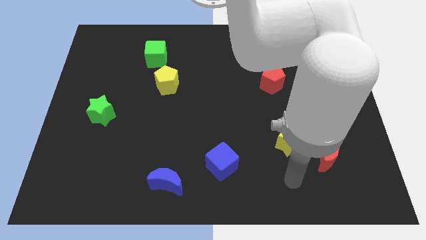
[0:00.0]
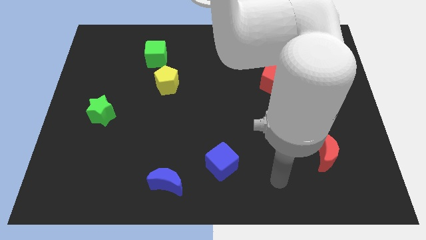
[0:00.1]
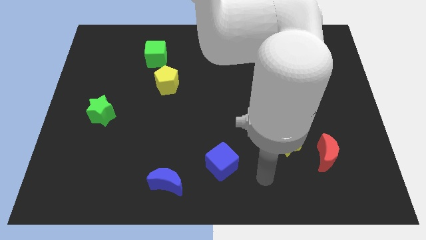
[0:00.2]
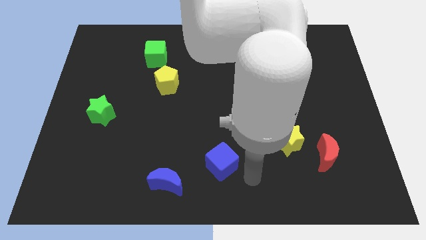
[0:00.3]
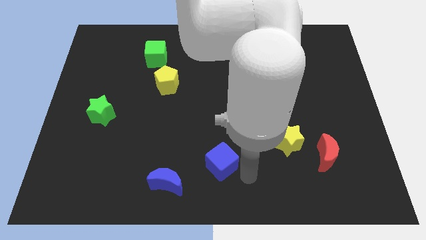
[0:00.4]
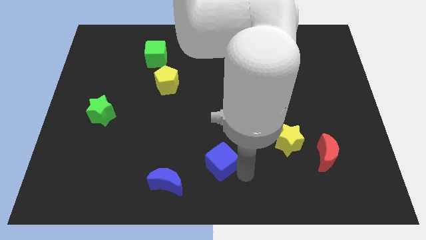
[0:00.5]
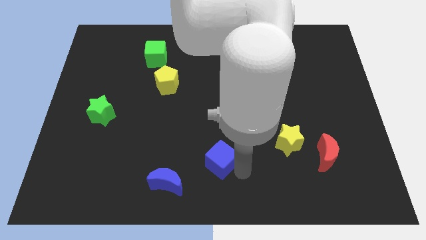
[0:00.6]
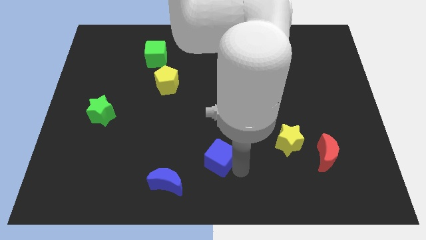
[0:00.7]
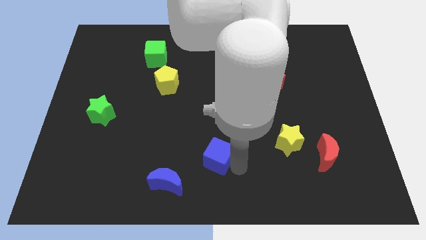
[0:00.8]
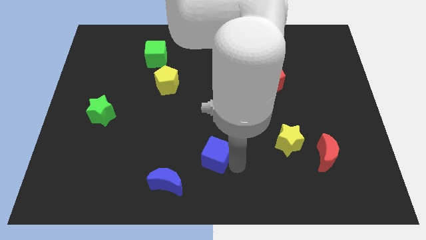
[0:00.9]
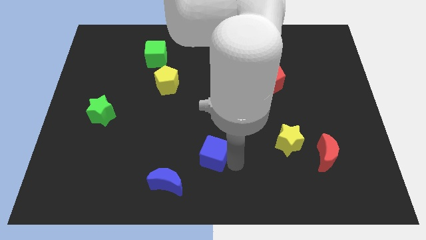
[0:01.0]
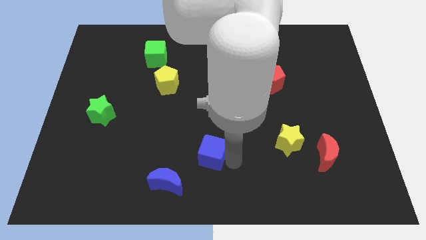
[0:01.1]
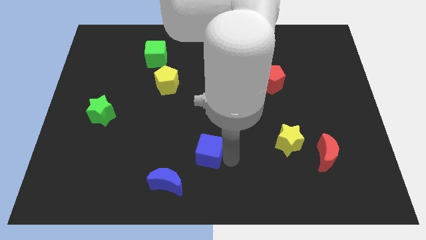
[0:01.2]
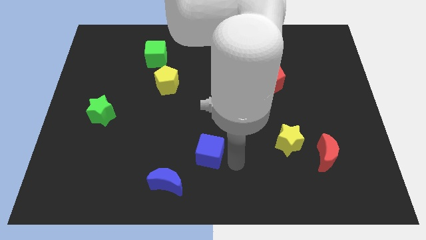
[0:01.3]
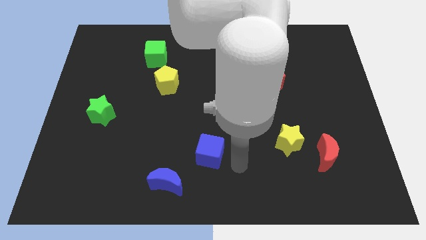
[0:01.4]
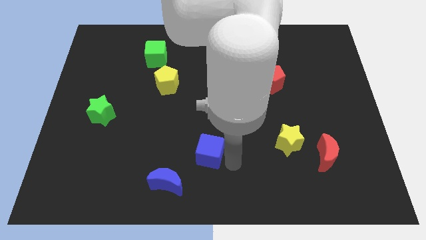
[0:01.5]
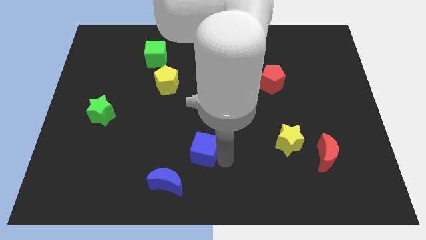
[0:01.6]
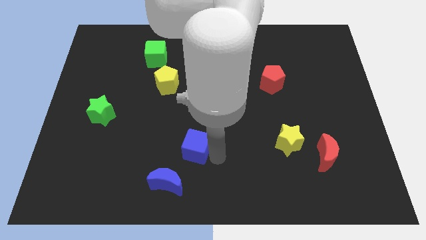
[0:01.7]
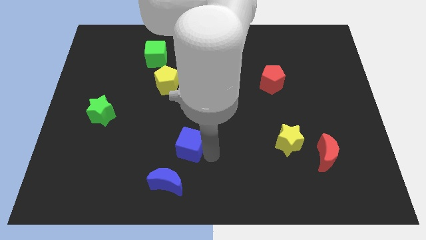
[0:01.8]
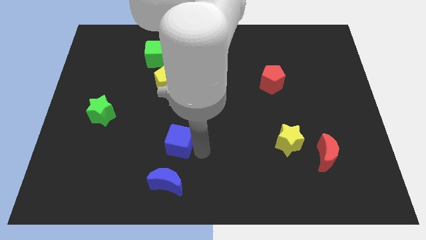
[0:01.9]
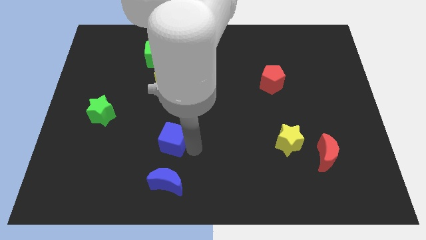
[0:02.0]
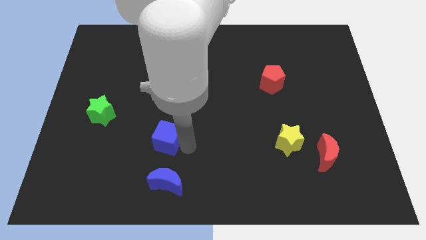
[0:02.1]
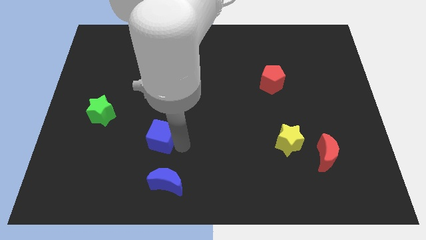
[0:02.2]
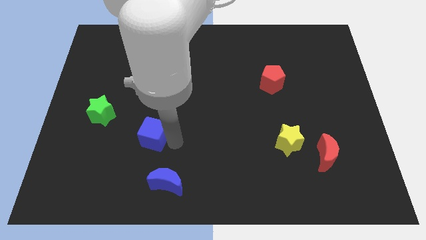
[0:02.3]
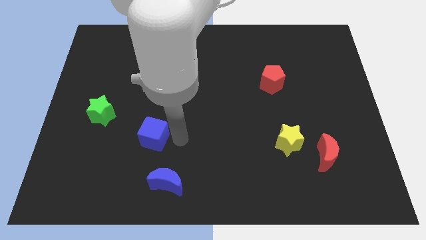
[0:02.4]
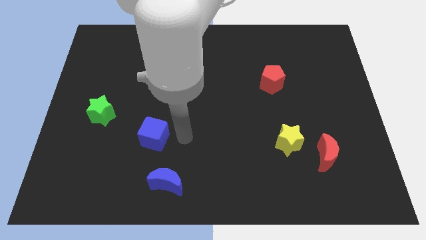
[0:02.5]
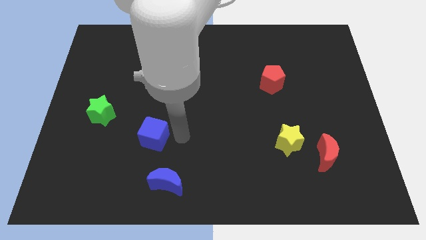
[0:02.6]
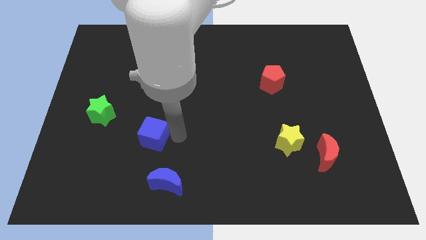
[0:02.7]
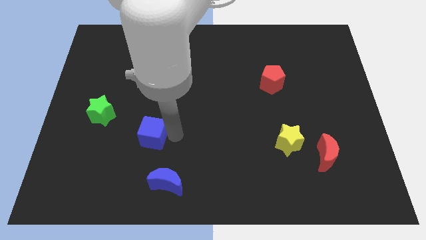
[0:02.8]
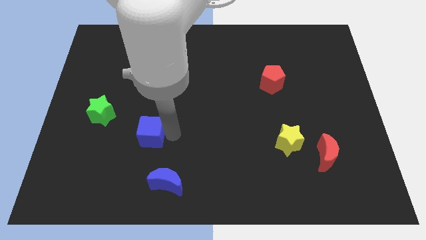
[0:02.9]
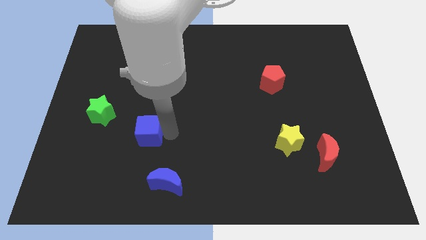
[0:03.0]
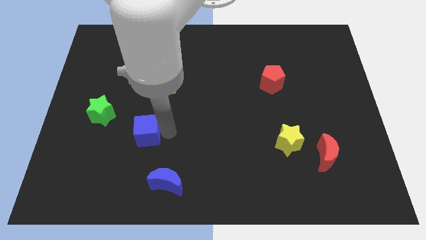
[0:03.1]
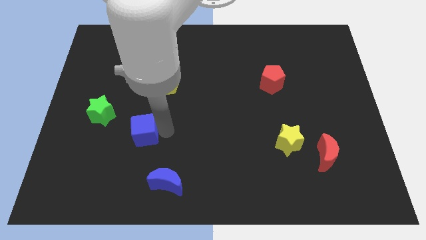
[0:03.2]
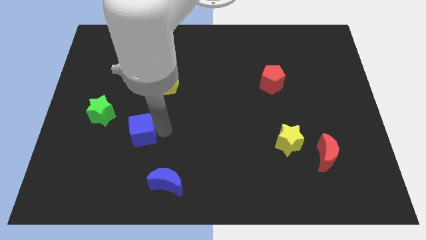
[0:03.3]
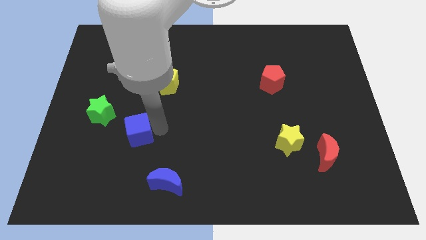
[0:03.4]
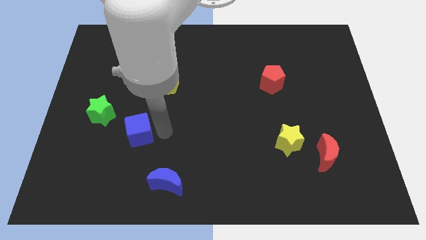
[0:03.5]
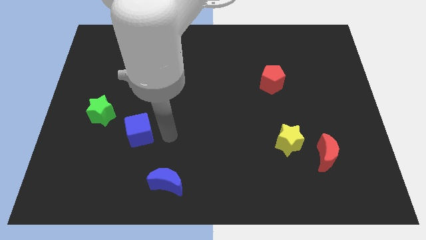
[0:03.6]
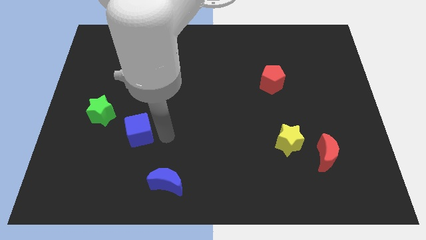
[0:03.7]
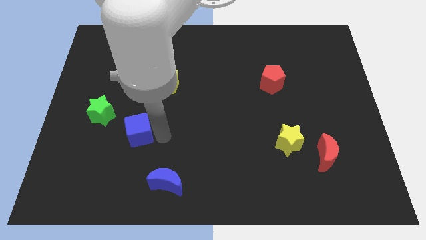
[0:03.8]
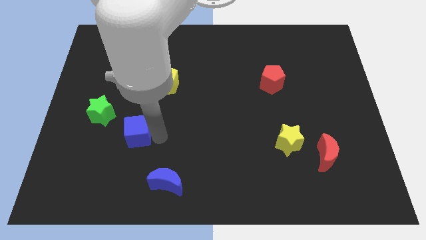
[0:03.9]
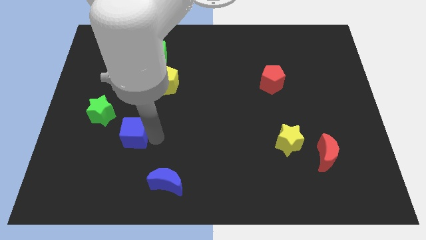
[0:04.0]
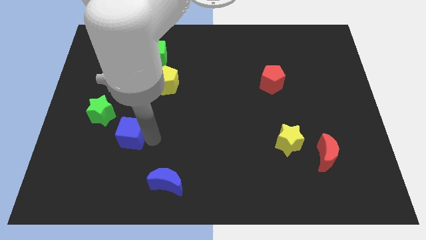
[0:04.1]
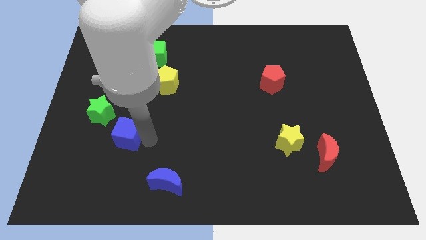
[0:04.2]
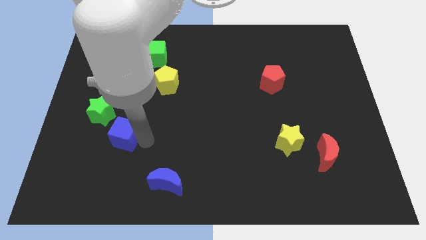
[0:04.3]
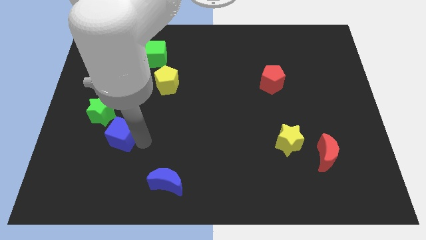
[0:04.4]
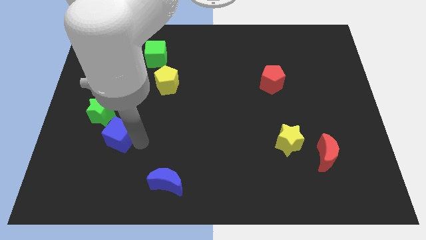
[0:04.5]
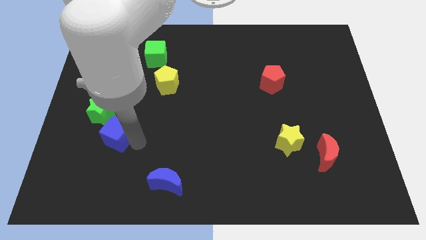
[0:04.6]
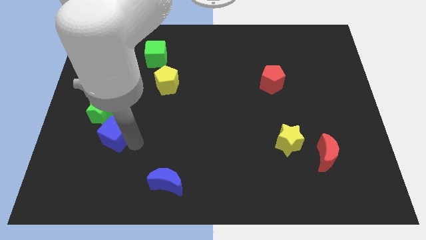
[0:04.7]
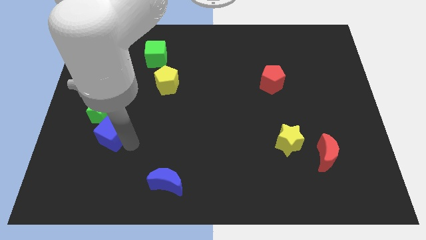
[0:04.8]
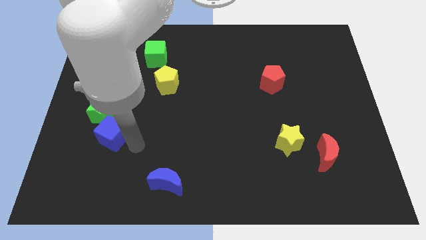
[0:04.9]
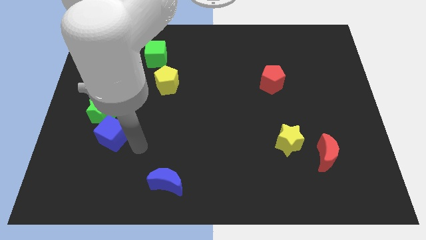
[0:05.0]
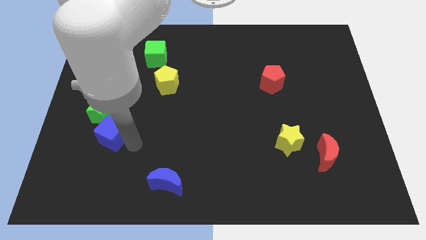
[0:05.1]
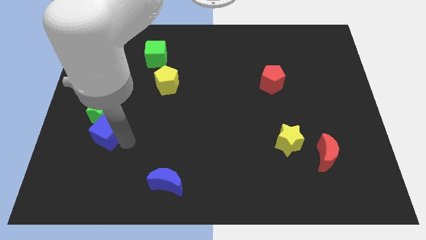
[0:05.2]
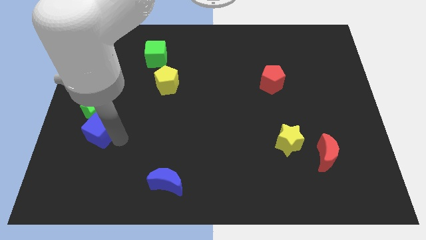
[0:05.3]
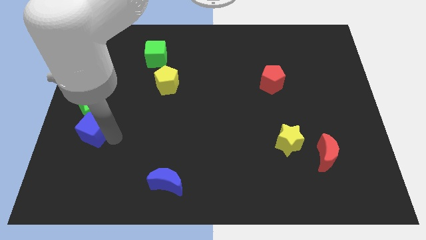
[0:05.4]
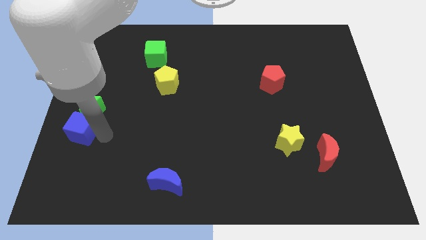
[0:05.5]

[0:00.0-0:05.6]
push the blue cube to the left side

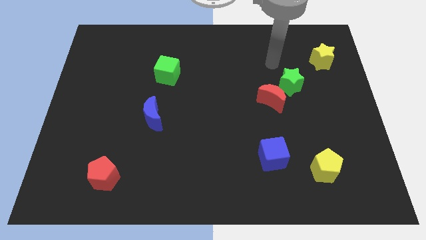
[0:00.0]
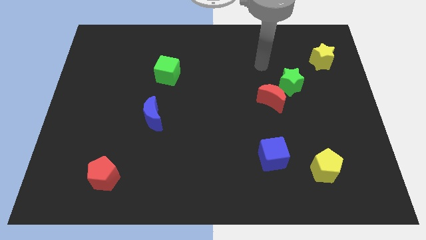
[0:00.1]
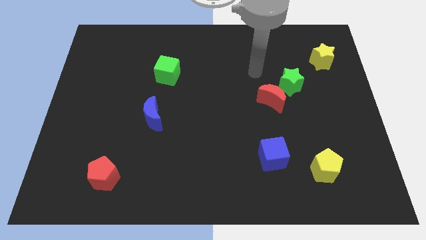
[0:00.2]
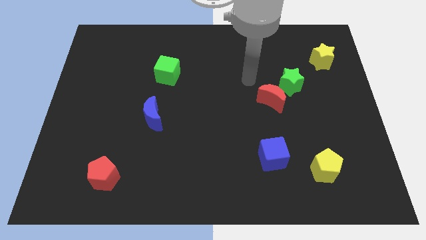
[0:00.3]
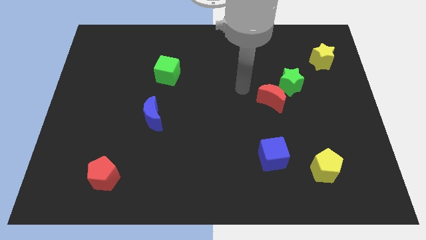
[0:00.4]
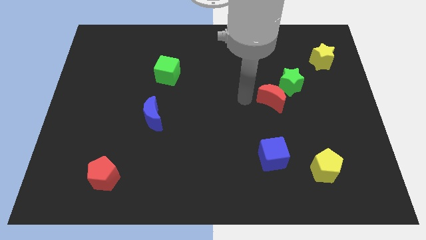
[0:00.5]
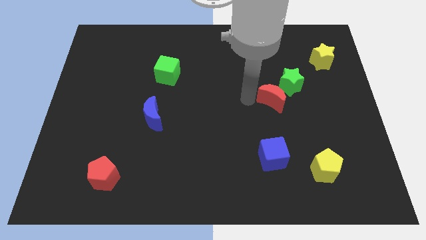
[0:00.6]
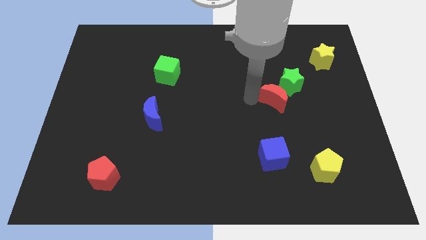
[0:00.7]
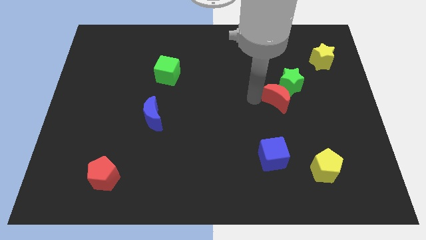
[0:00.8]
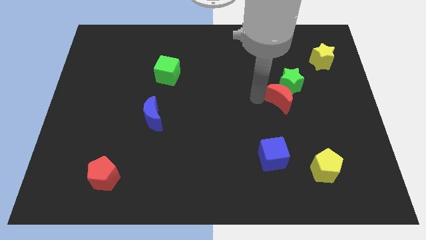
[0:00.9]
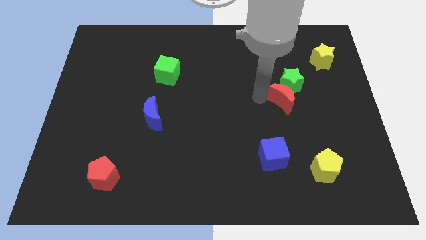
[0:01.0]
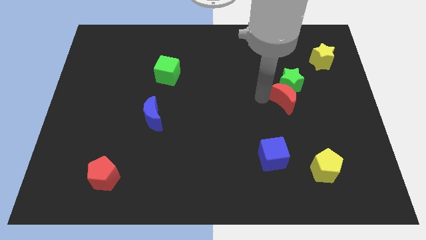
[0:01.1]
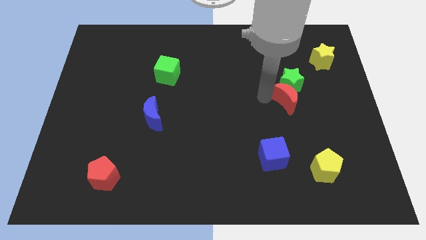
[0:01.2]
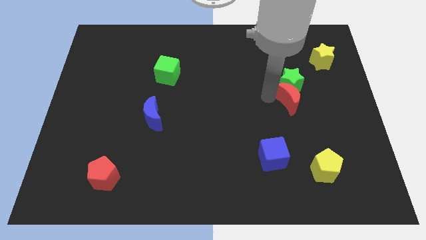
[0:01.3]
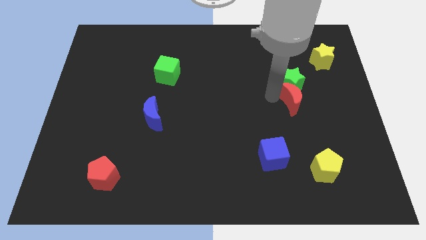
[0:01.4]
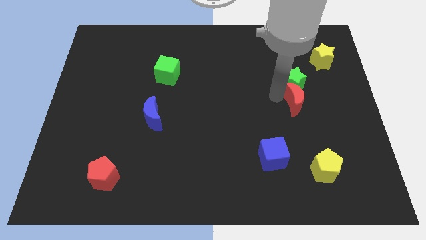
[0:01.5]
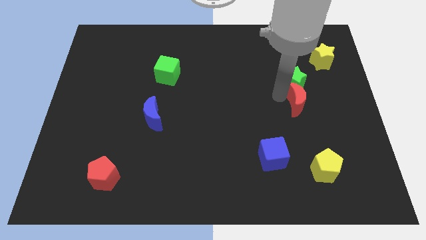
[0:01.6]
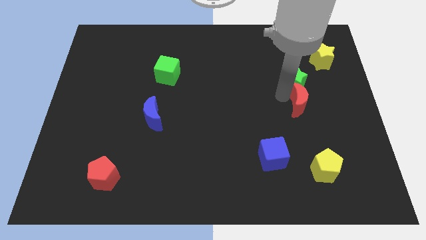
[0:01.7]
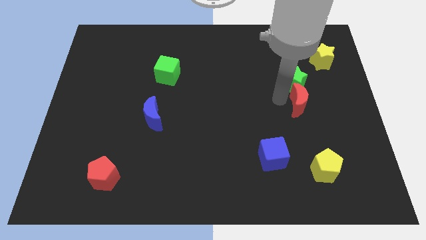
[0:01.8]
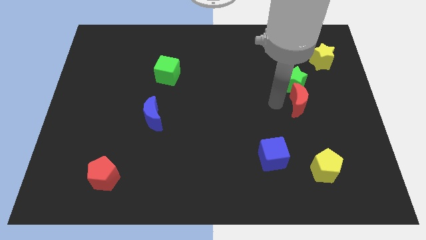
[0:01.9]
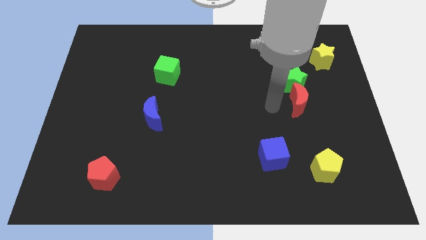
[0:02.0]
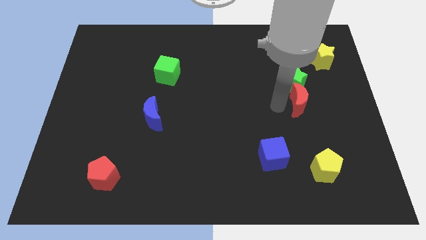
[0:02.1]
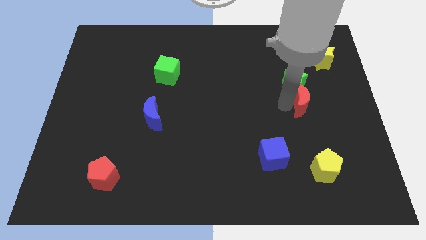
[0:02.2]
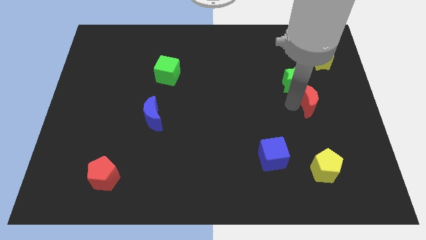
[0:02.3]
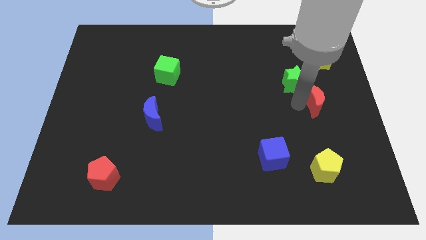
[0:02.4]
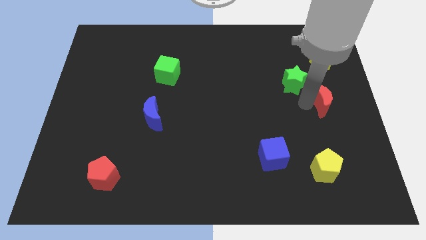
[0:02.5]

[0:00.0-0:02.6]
put the red moon to the right side
